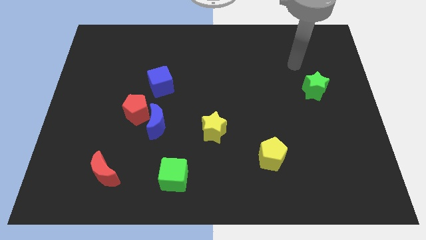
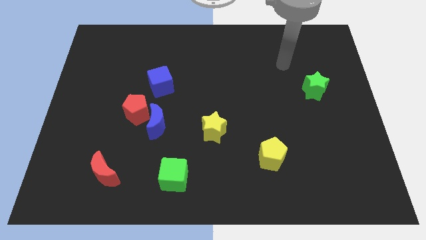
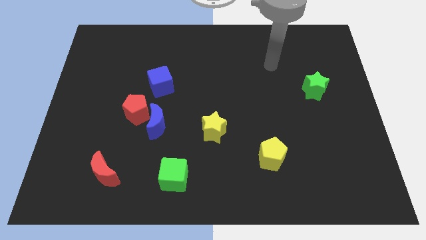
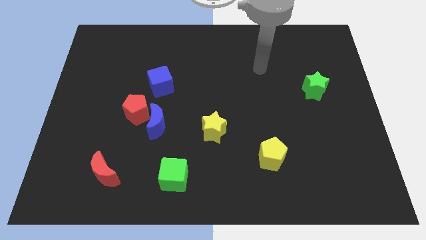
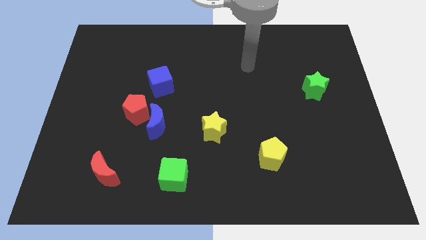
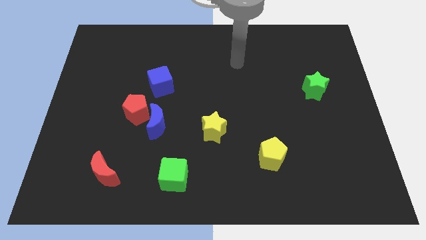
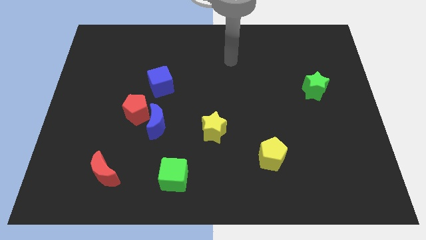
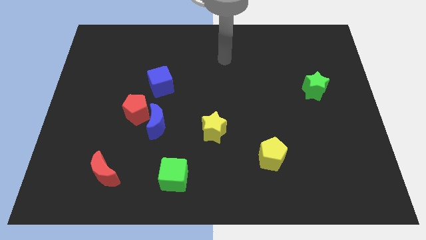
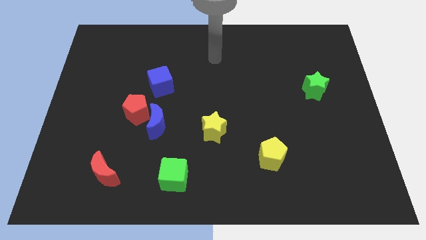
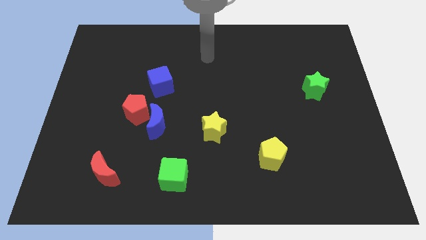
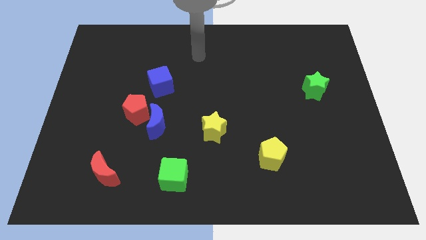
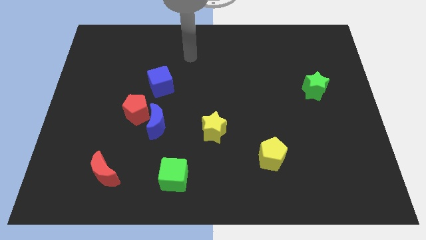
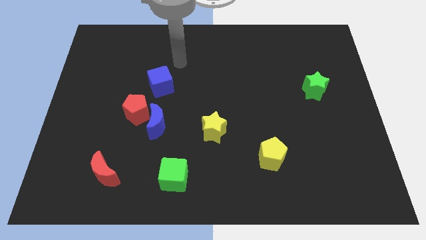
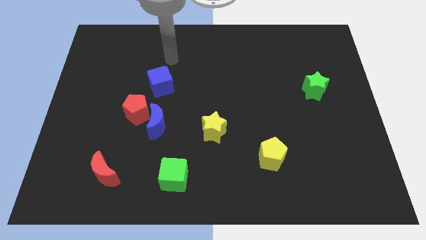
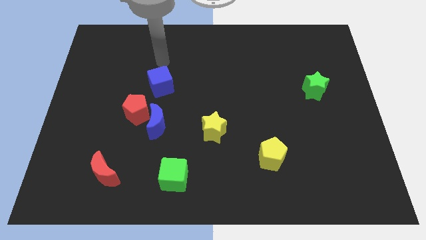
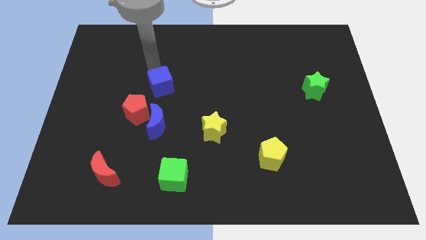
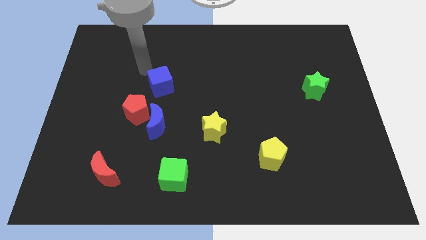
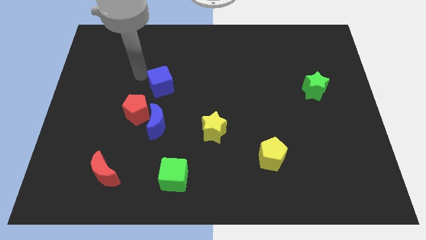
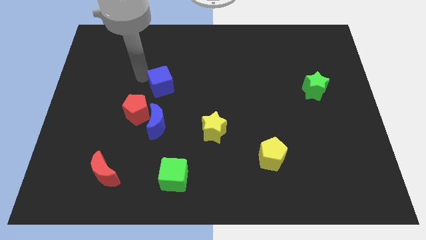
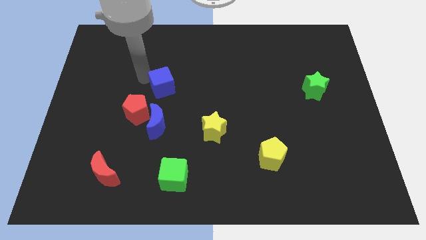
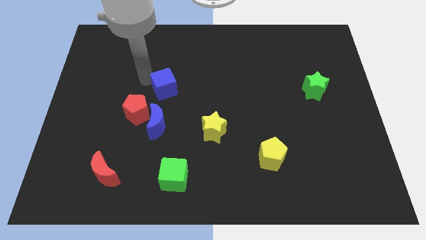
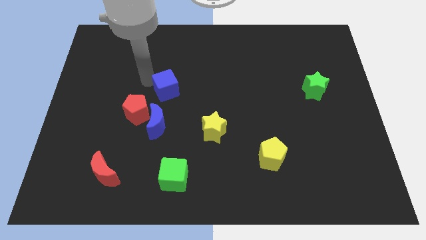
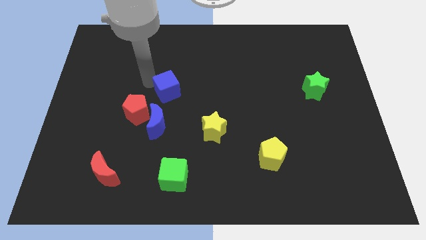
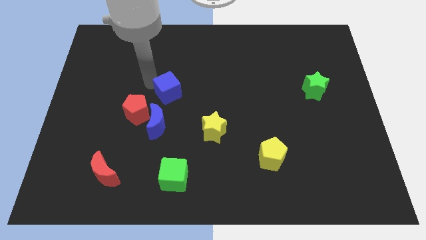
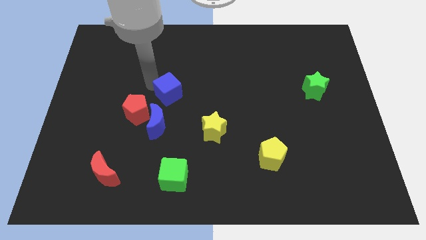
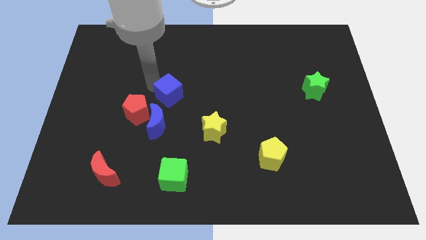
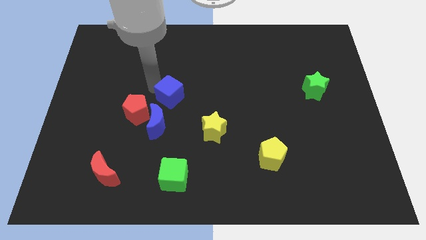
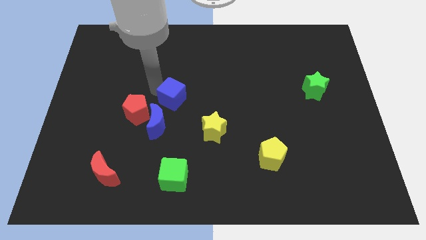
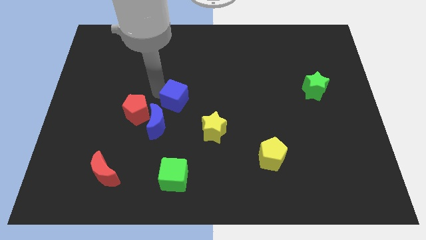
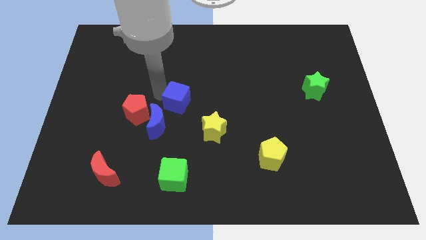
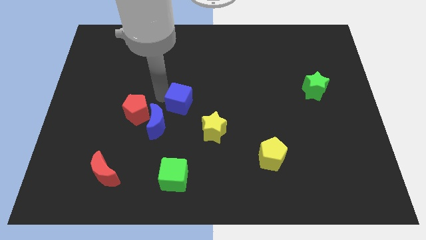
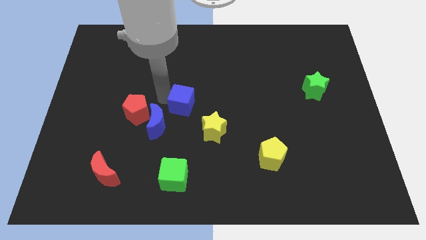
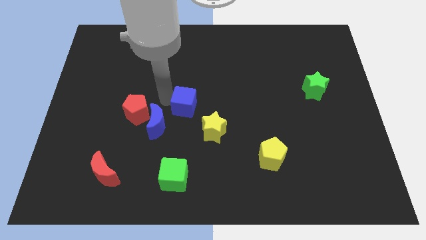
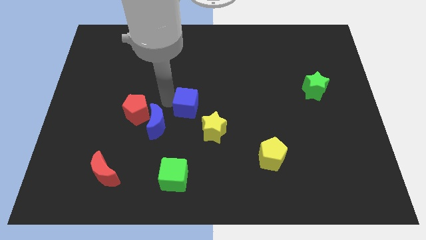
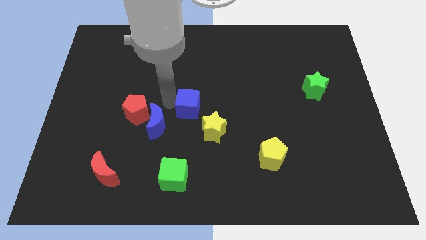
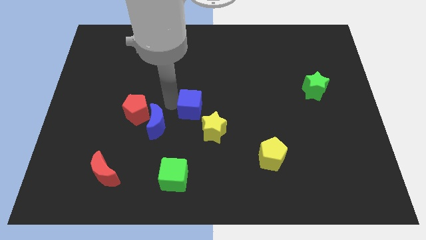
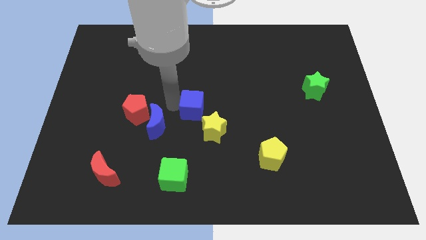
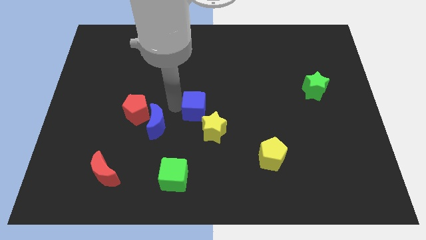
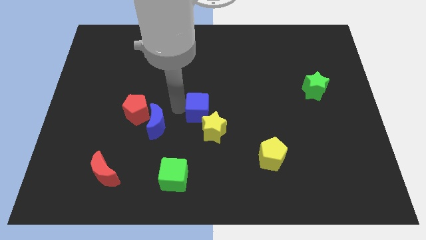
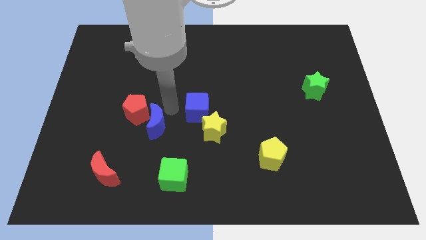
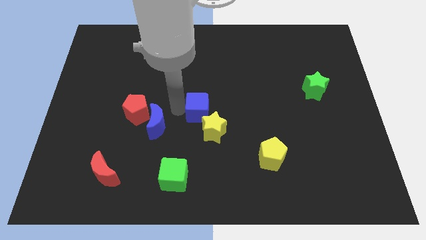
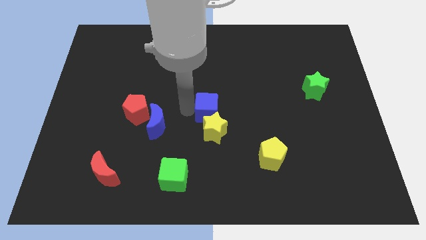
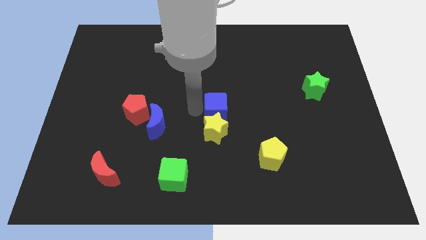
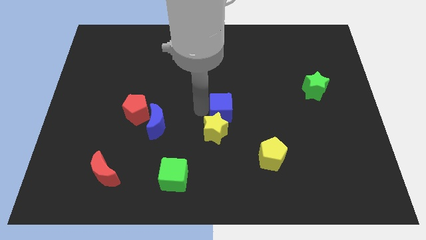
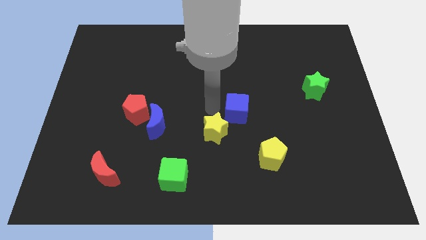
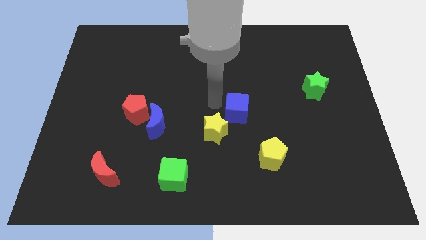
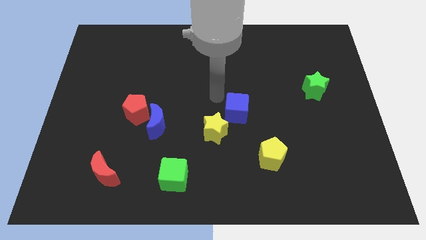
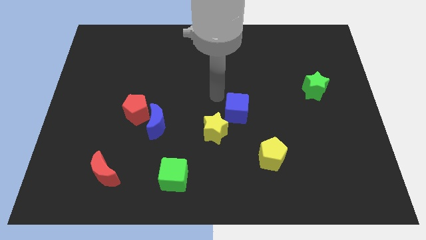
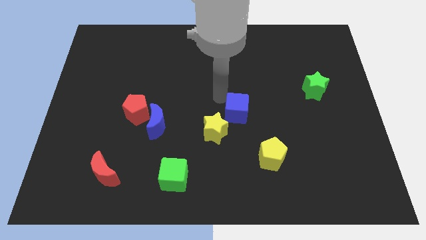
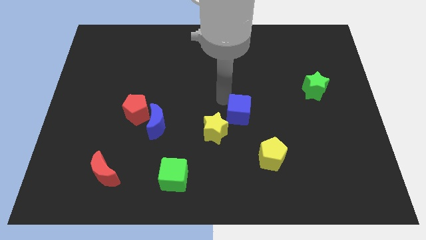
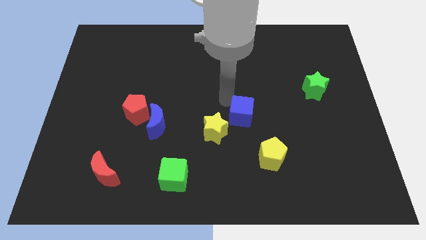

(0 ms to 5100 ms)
move the blue cube to the right side of the yellow star

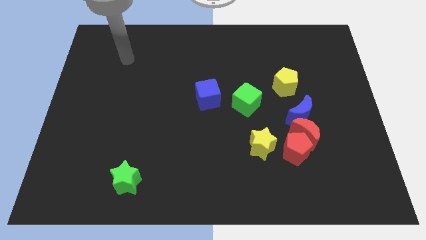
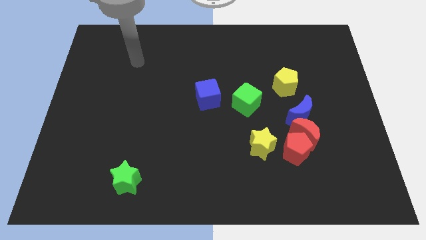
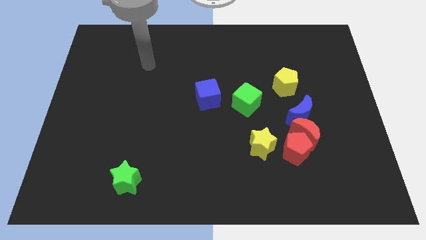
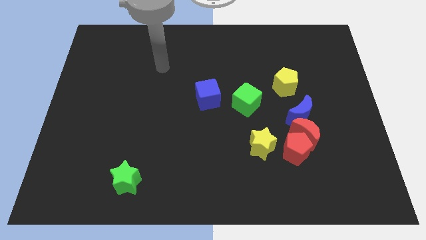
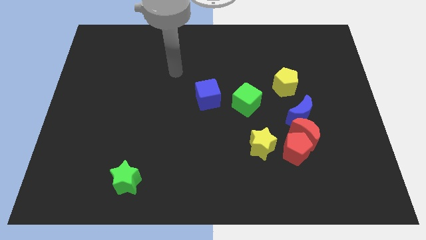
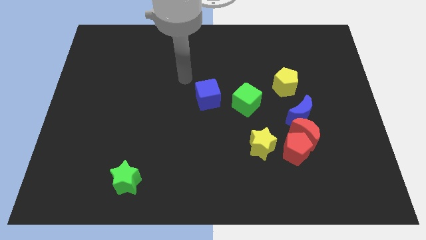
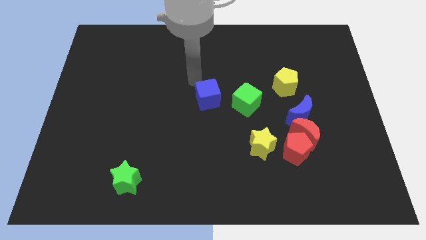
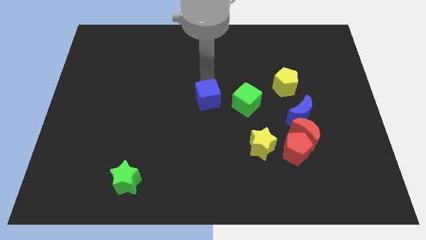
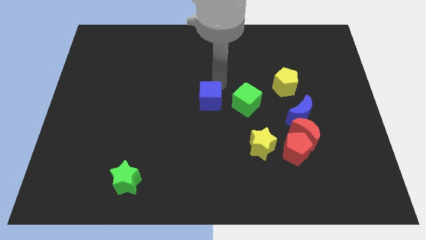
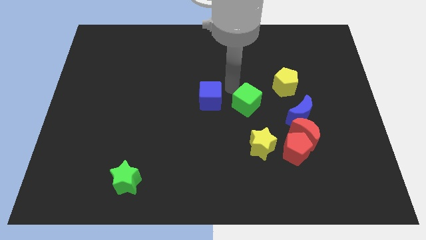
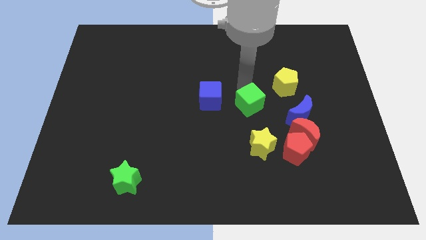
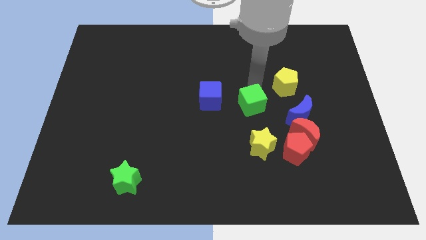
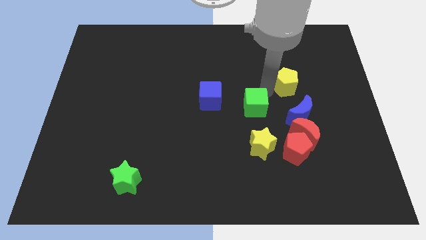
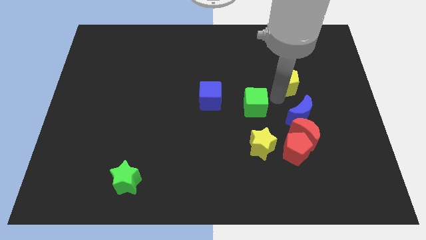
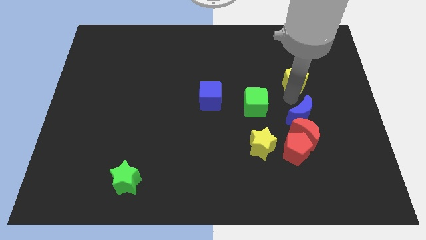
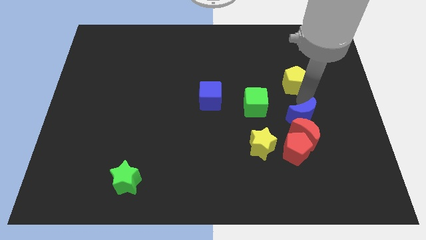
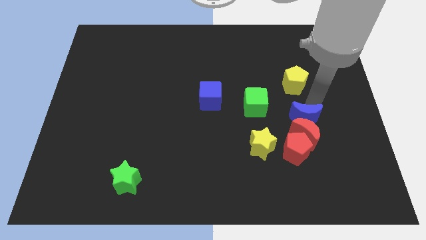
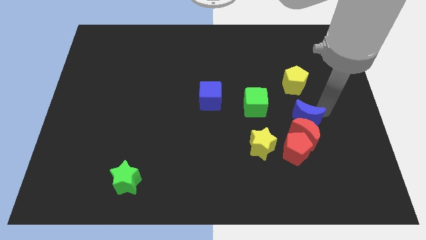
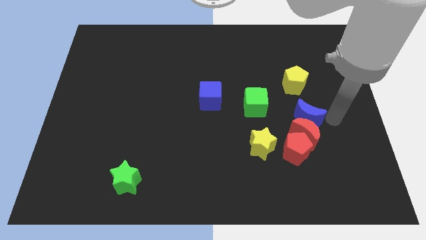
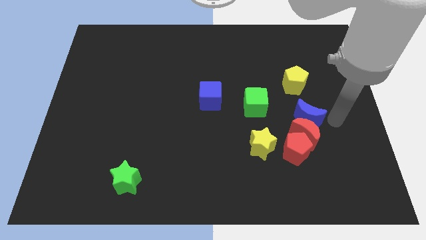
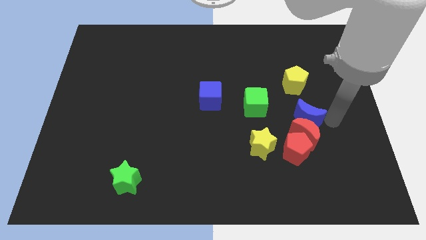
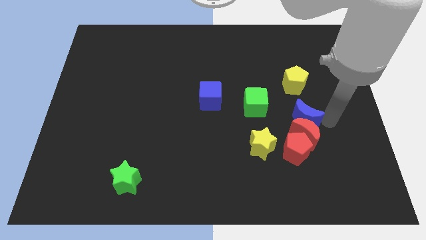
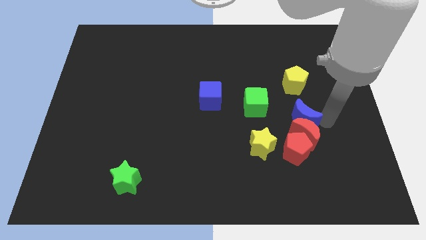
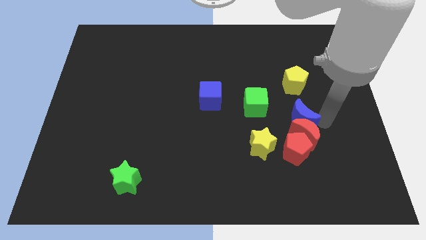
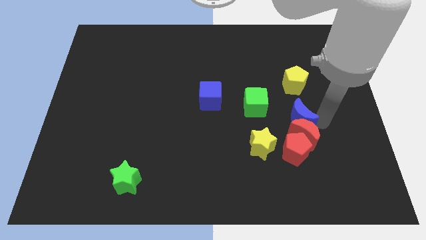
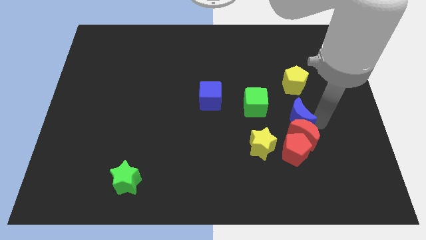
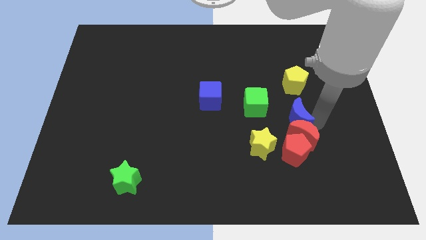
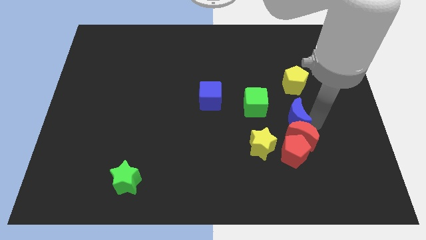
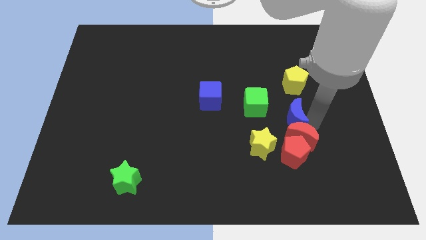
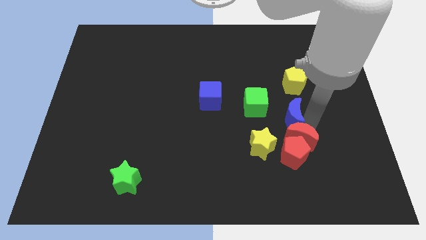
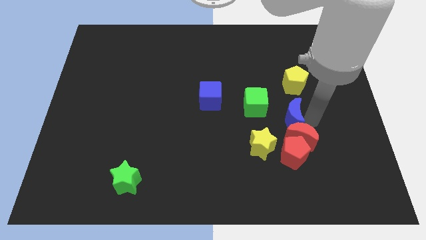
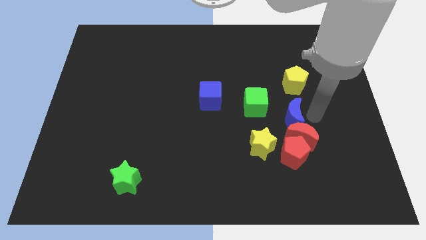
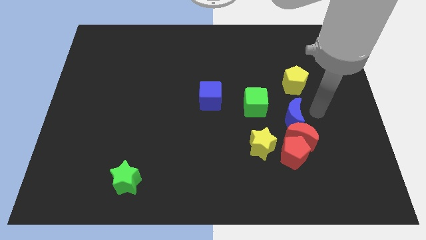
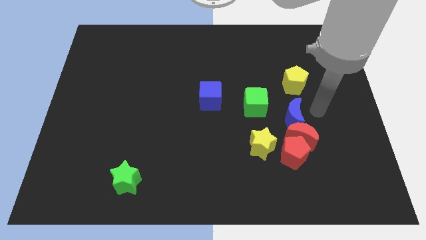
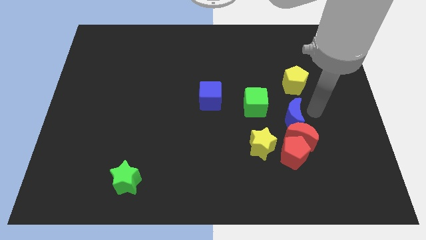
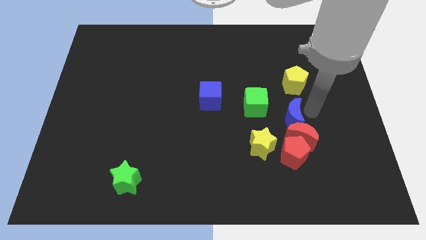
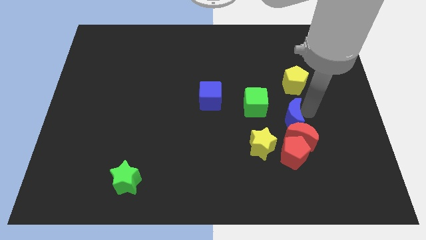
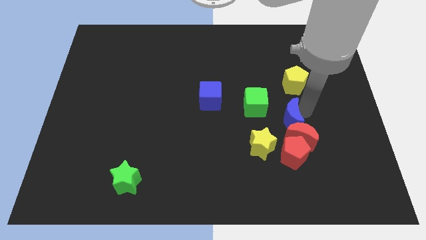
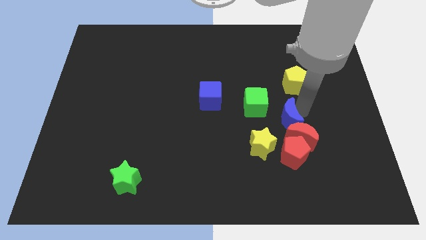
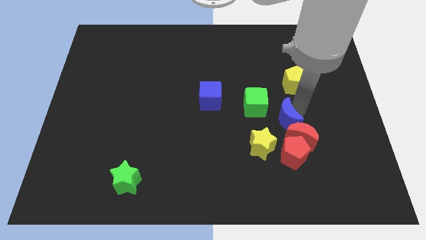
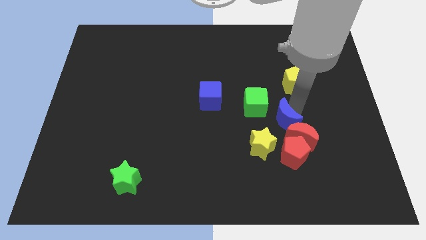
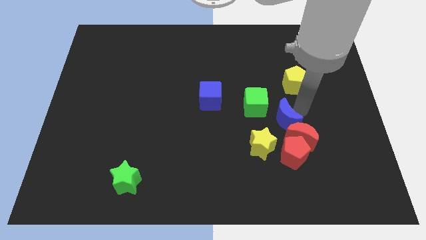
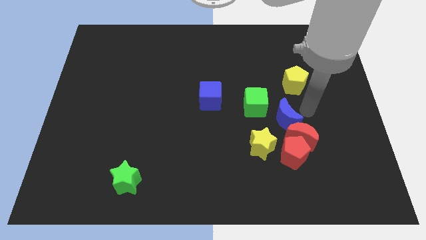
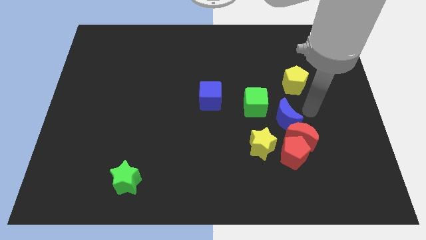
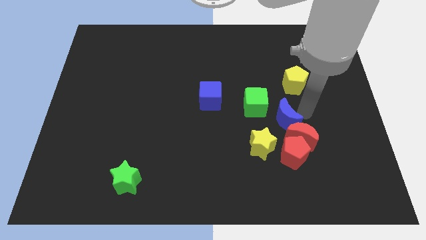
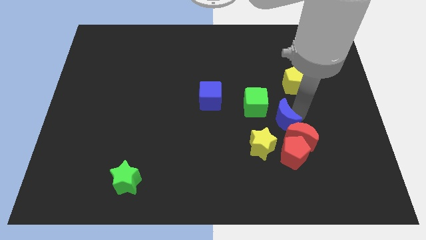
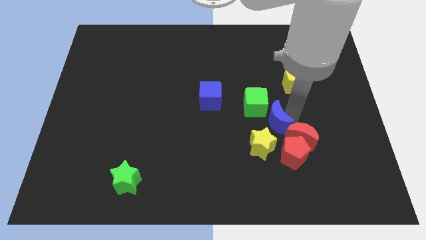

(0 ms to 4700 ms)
put the blue moon to the bottom side of the green cube
